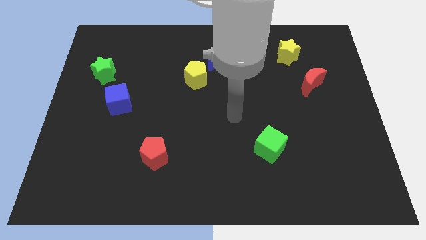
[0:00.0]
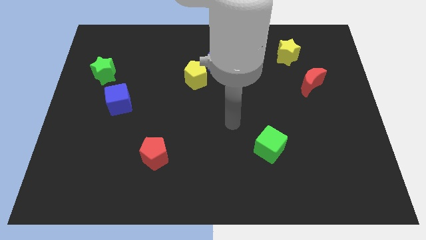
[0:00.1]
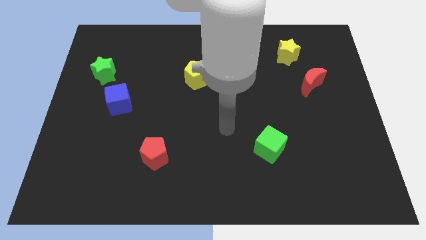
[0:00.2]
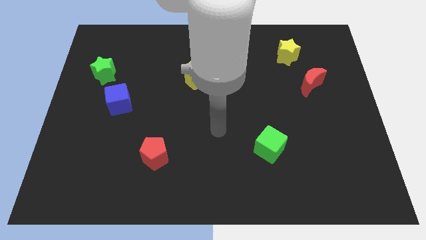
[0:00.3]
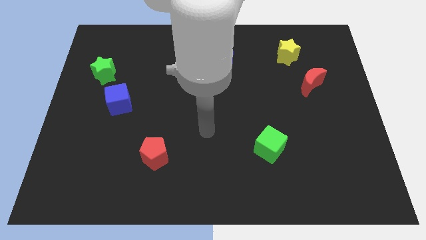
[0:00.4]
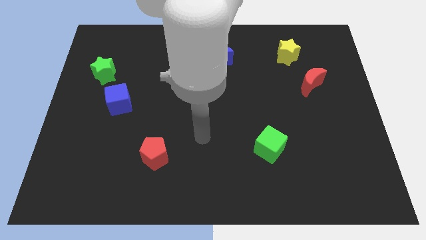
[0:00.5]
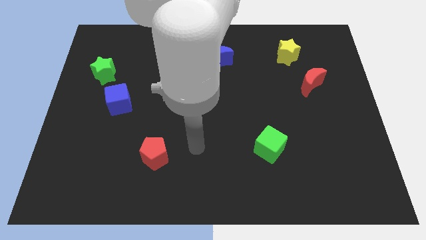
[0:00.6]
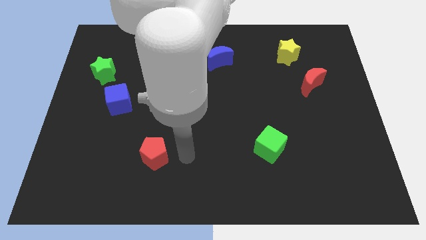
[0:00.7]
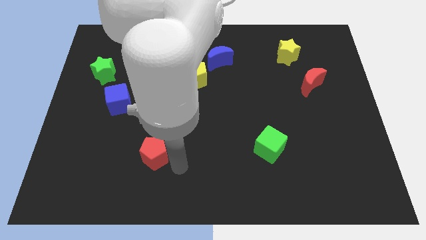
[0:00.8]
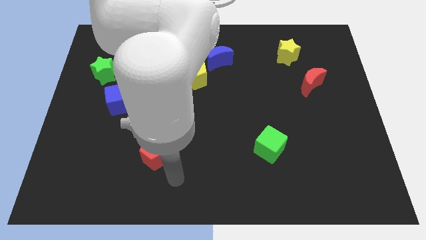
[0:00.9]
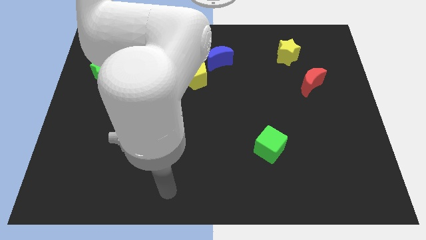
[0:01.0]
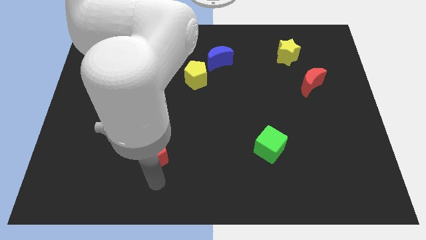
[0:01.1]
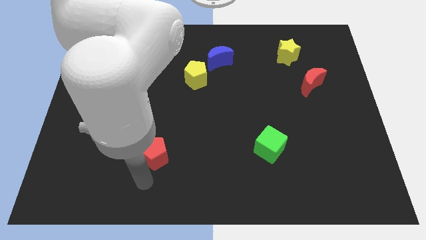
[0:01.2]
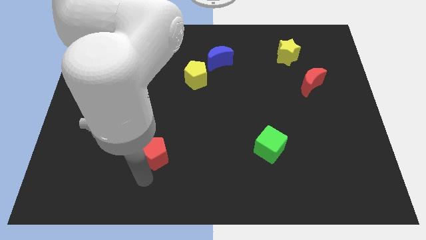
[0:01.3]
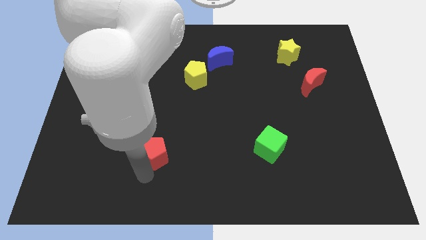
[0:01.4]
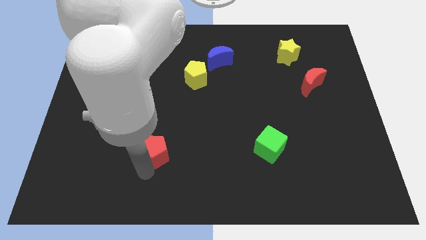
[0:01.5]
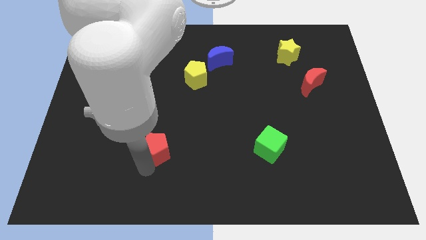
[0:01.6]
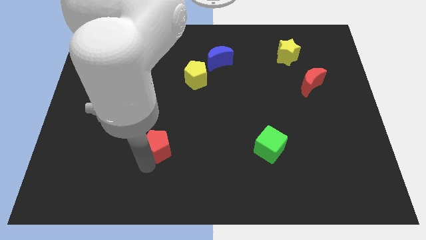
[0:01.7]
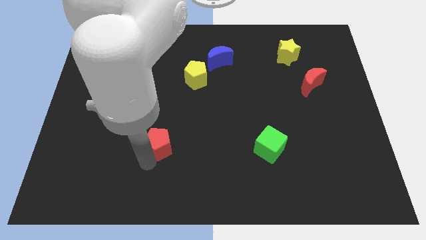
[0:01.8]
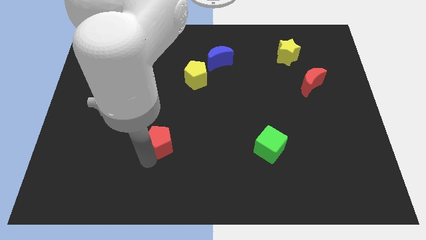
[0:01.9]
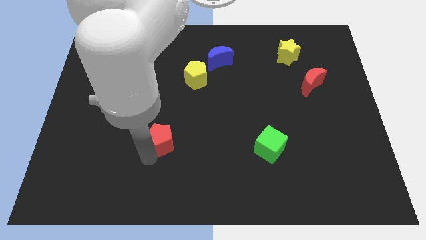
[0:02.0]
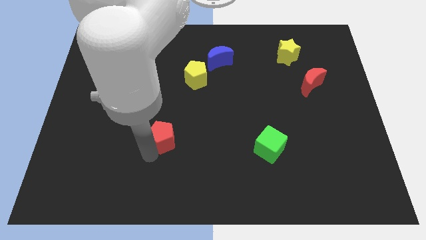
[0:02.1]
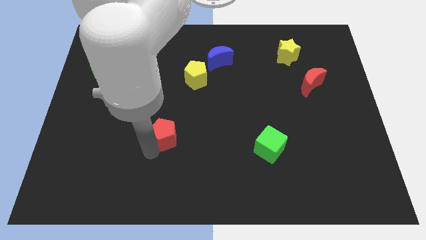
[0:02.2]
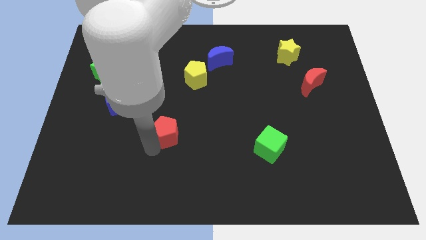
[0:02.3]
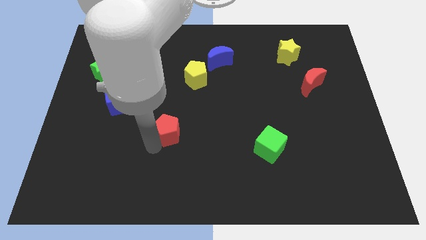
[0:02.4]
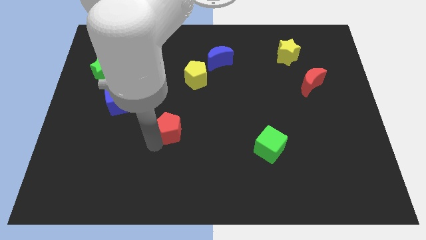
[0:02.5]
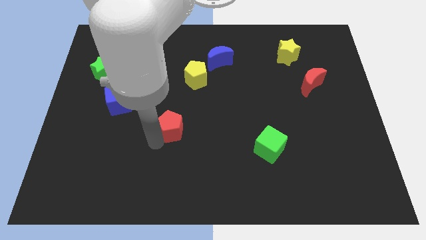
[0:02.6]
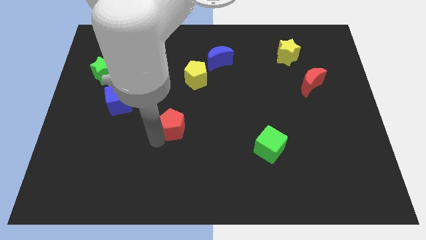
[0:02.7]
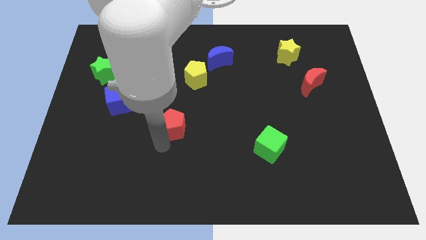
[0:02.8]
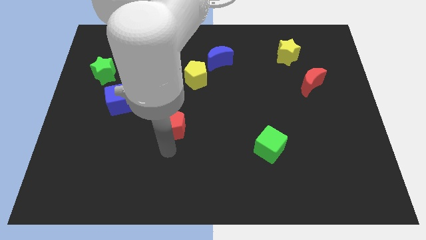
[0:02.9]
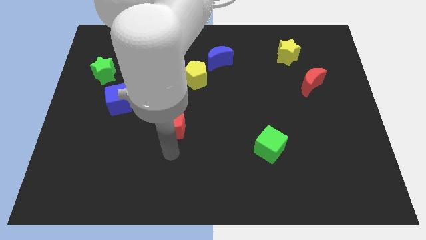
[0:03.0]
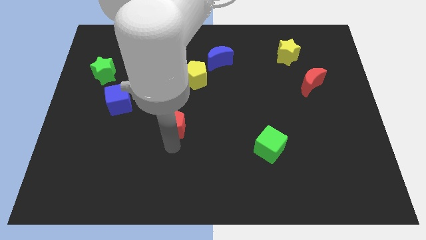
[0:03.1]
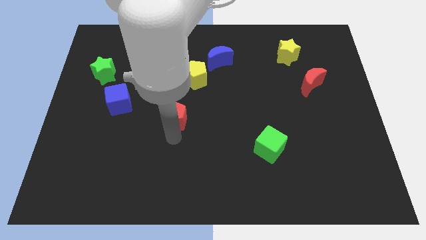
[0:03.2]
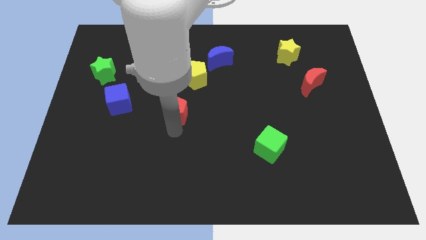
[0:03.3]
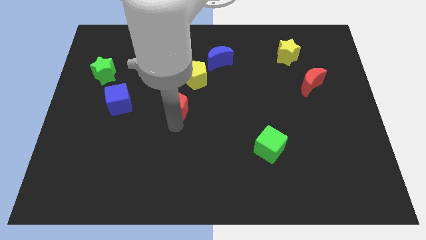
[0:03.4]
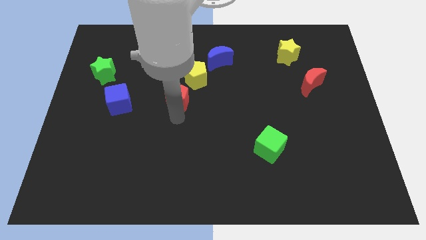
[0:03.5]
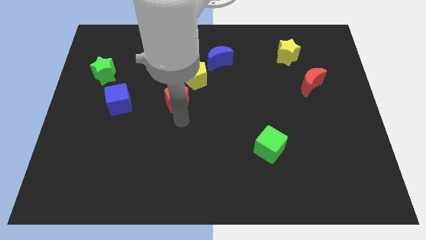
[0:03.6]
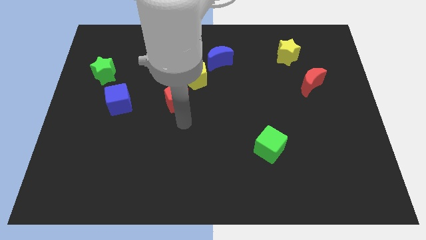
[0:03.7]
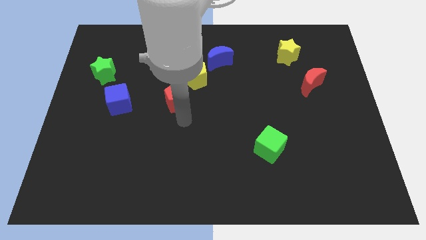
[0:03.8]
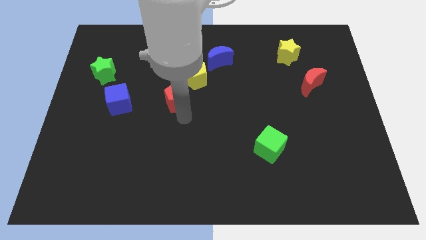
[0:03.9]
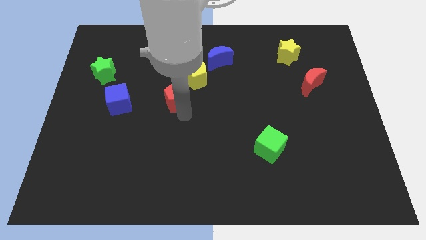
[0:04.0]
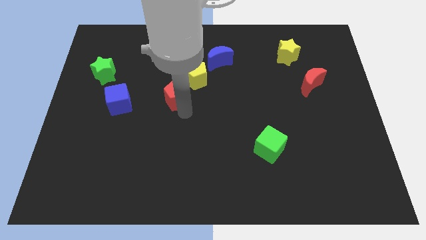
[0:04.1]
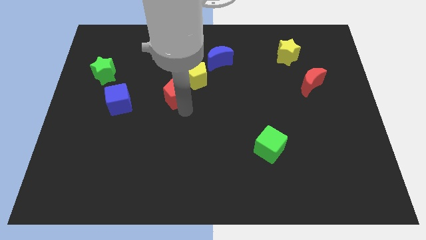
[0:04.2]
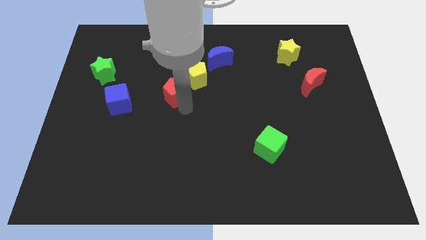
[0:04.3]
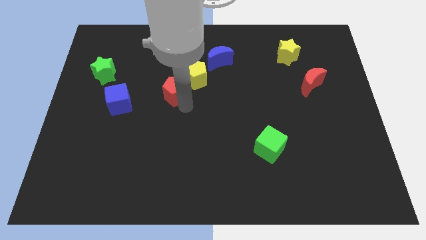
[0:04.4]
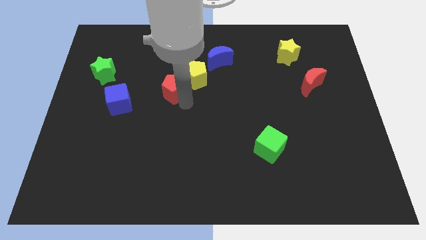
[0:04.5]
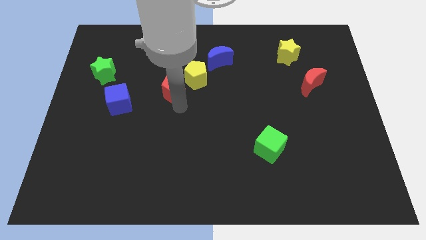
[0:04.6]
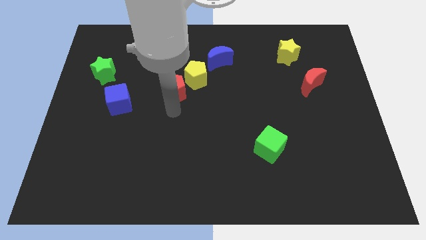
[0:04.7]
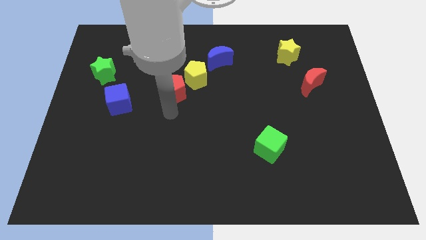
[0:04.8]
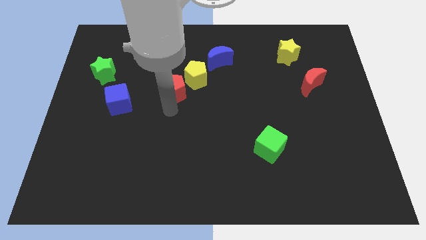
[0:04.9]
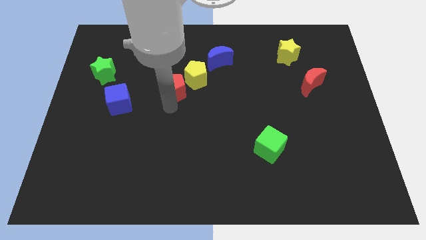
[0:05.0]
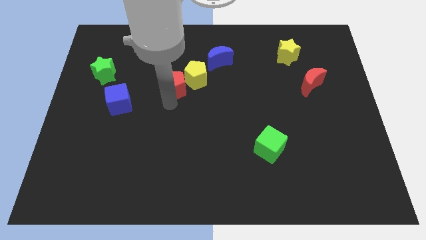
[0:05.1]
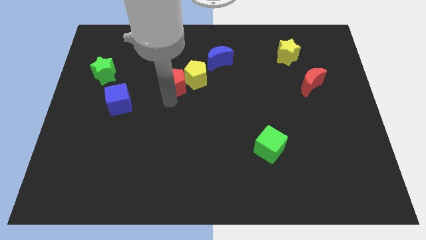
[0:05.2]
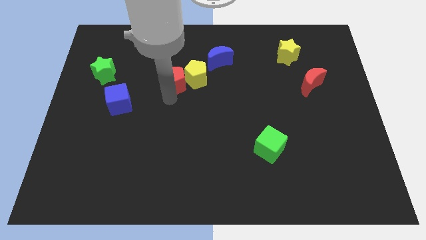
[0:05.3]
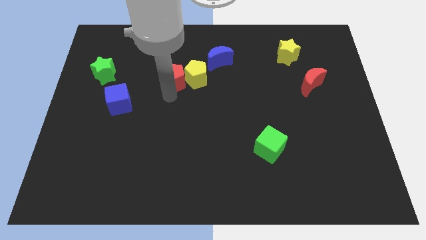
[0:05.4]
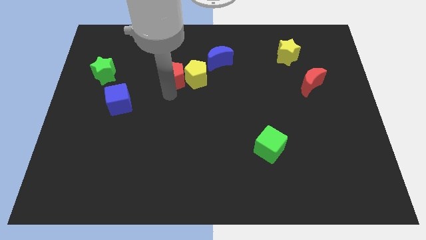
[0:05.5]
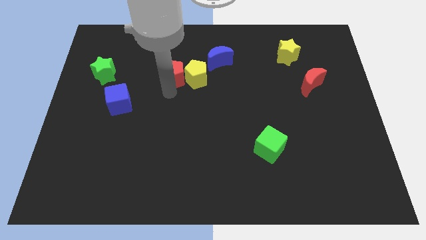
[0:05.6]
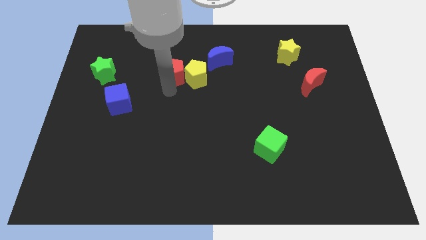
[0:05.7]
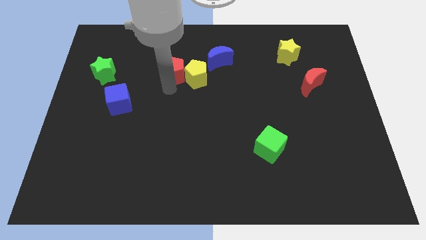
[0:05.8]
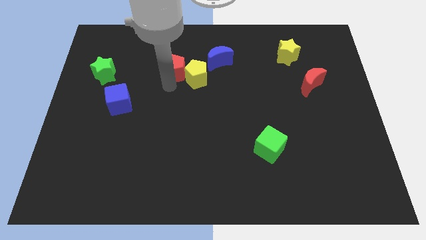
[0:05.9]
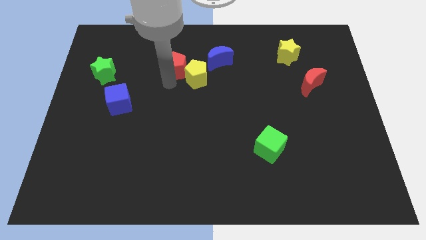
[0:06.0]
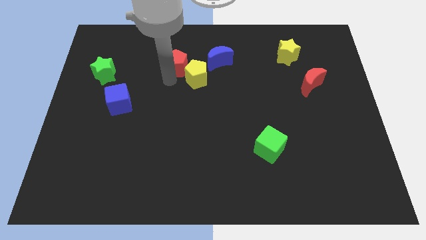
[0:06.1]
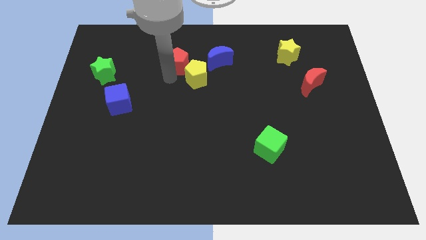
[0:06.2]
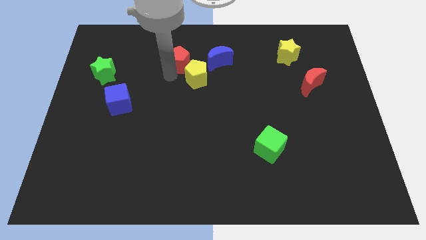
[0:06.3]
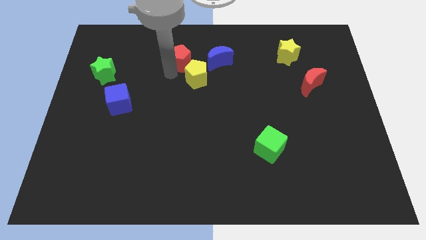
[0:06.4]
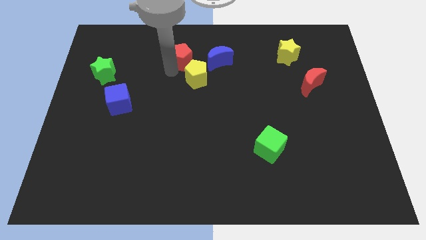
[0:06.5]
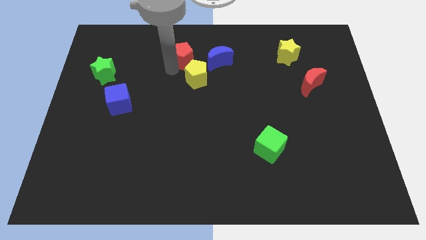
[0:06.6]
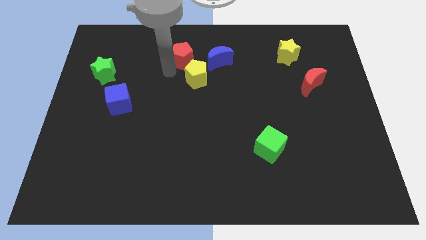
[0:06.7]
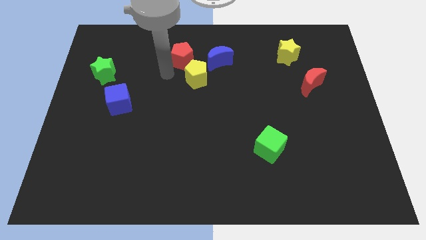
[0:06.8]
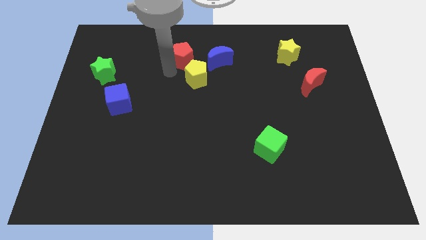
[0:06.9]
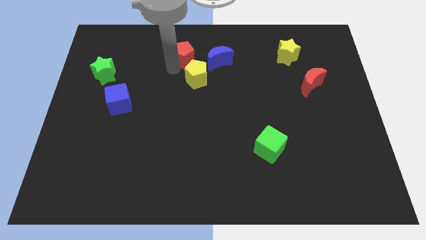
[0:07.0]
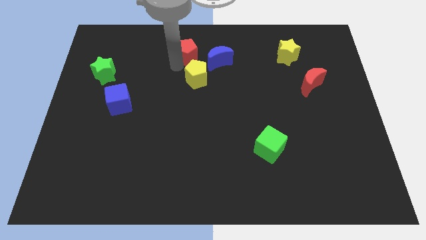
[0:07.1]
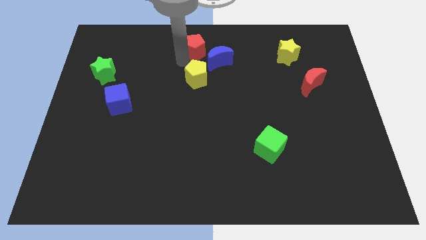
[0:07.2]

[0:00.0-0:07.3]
push the red pentagon to the top
